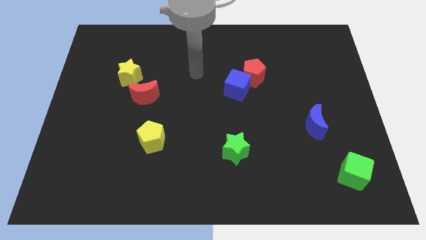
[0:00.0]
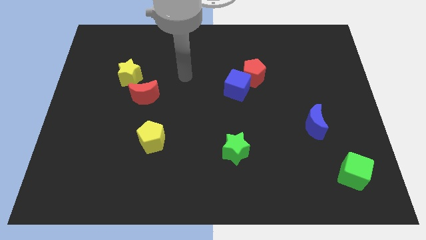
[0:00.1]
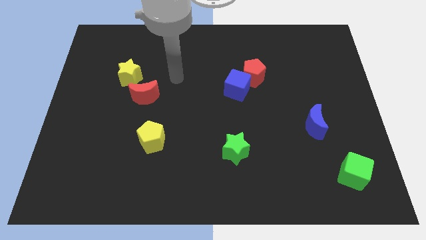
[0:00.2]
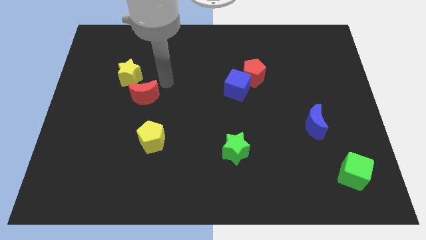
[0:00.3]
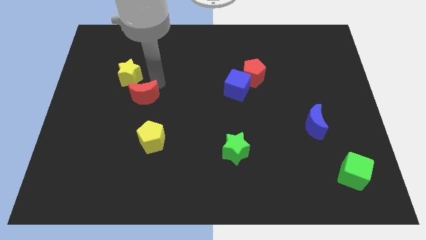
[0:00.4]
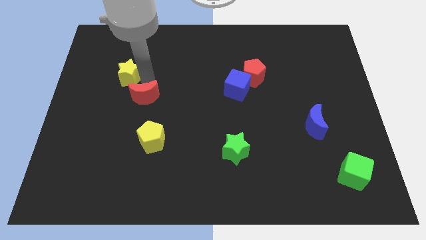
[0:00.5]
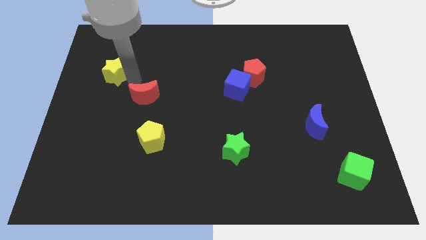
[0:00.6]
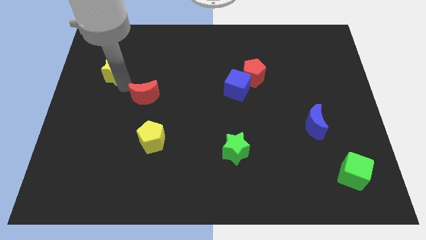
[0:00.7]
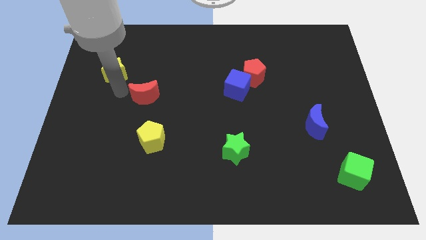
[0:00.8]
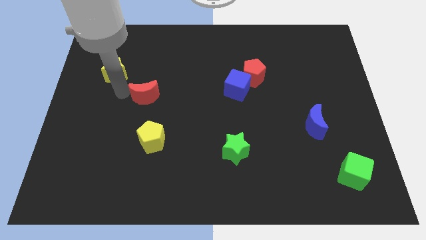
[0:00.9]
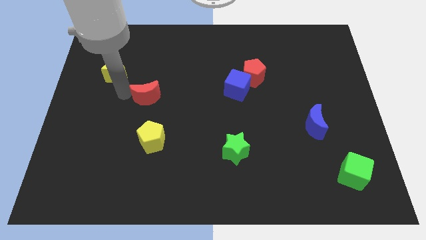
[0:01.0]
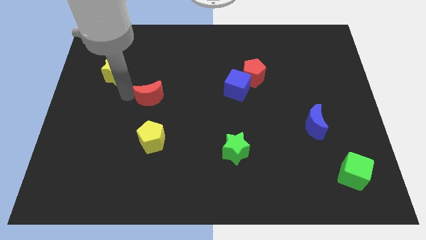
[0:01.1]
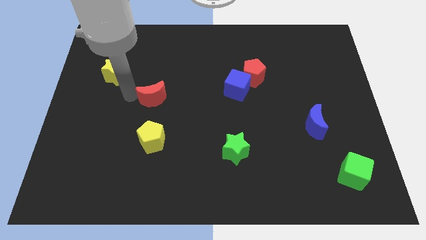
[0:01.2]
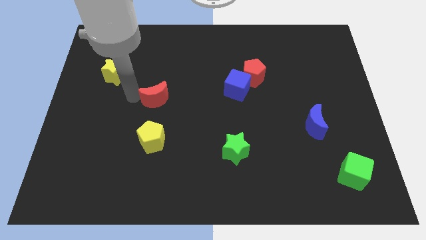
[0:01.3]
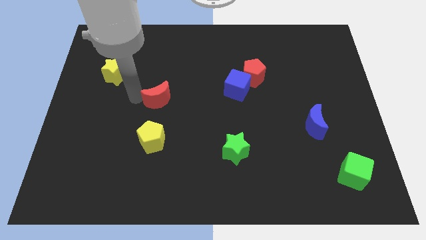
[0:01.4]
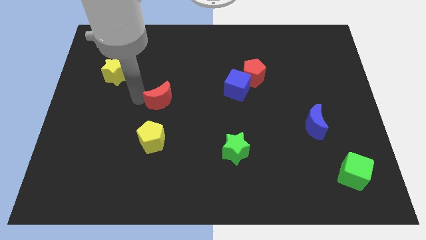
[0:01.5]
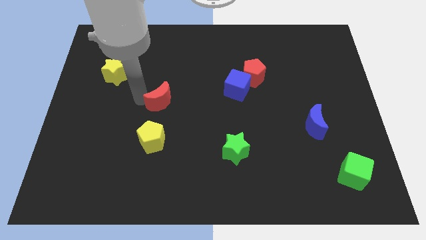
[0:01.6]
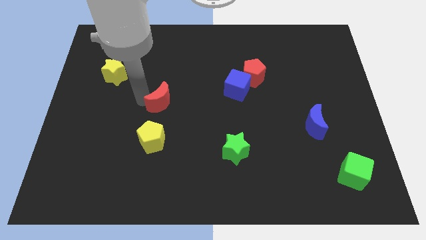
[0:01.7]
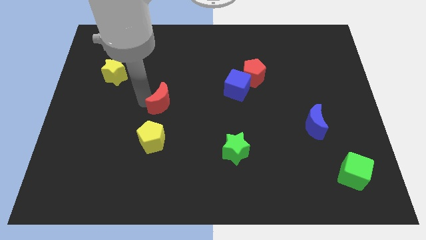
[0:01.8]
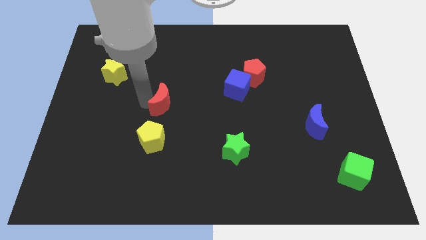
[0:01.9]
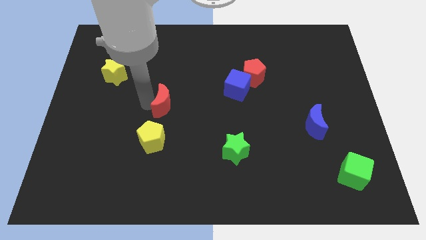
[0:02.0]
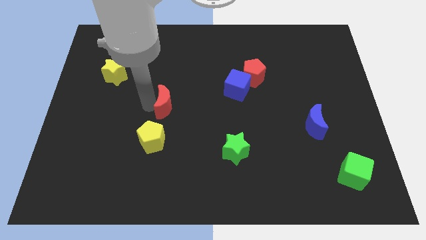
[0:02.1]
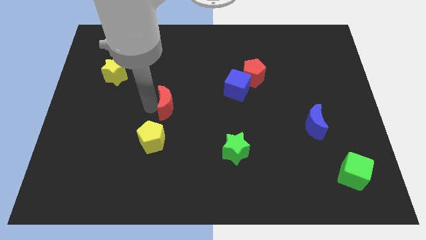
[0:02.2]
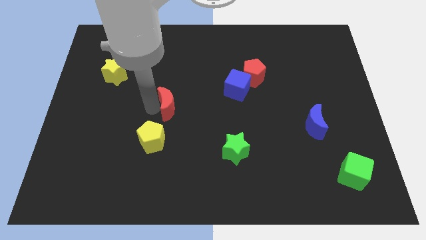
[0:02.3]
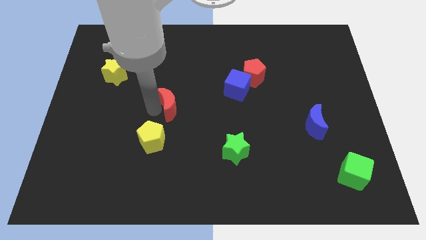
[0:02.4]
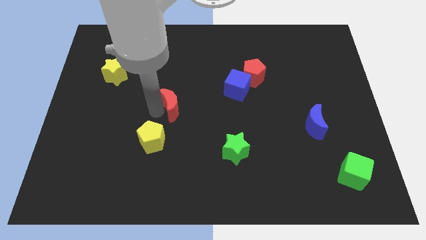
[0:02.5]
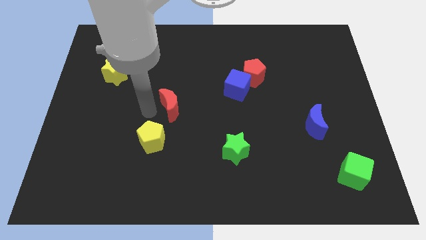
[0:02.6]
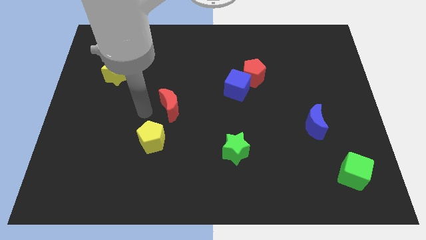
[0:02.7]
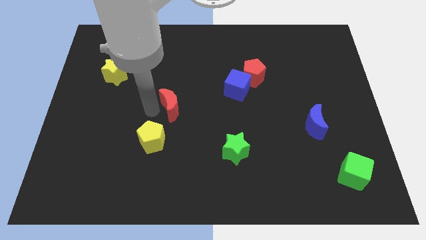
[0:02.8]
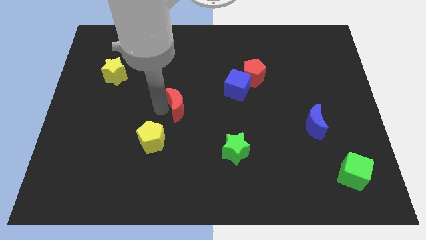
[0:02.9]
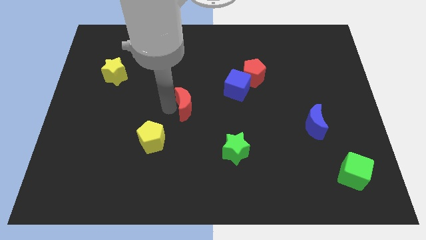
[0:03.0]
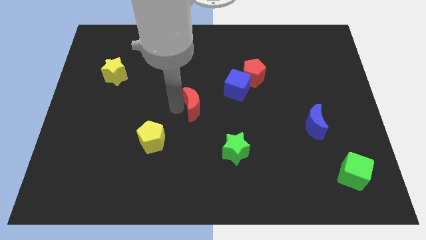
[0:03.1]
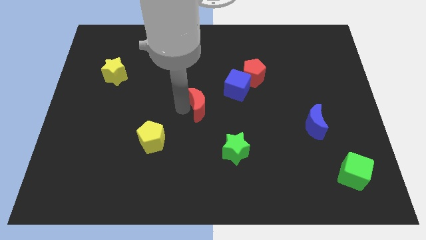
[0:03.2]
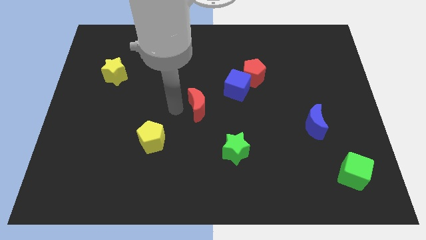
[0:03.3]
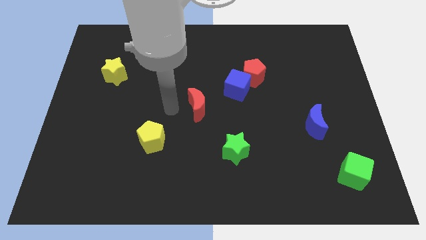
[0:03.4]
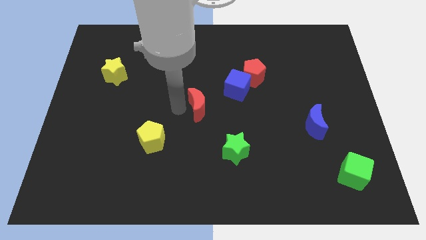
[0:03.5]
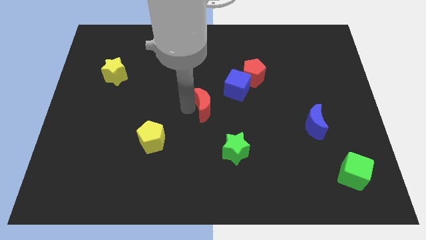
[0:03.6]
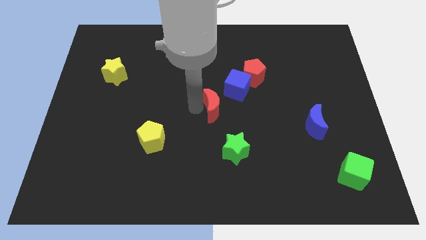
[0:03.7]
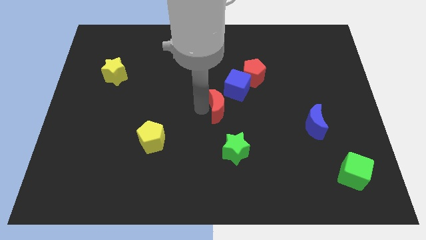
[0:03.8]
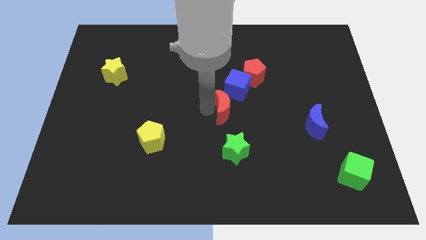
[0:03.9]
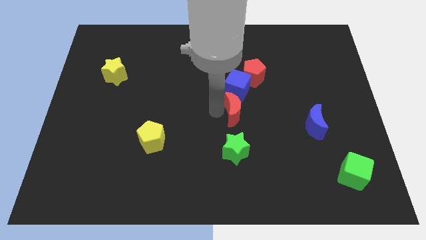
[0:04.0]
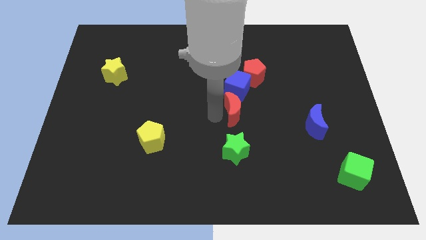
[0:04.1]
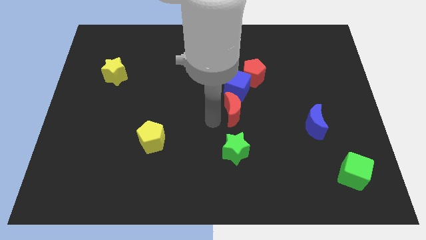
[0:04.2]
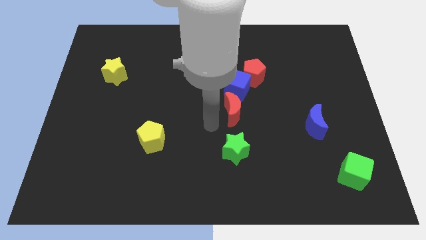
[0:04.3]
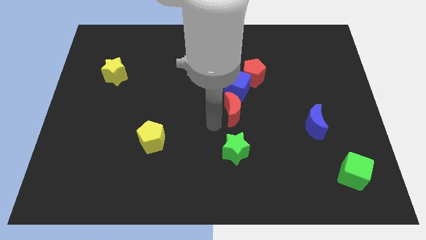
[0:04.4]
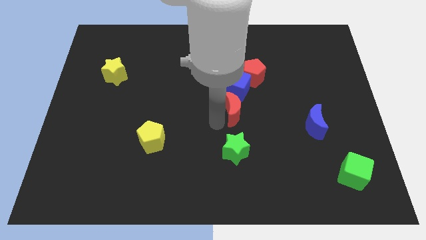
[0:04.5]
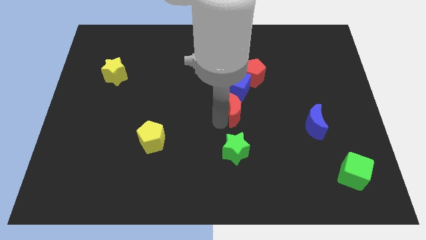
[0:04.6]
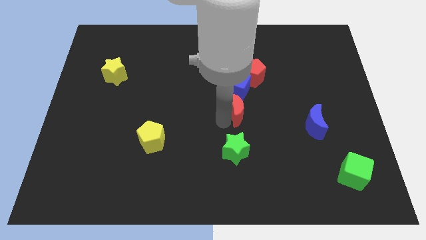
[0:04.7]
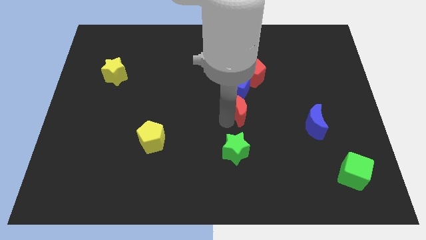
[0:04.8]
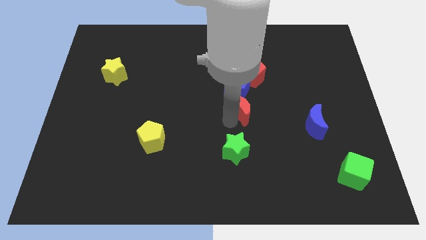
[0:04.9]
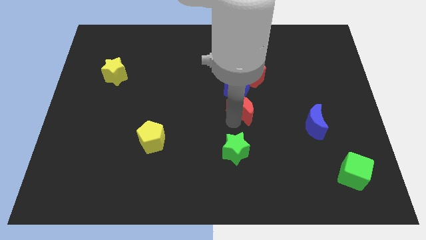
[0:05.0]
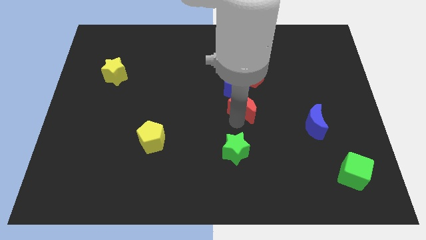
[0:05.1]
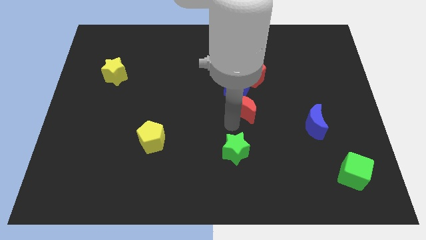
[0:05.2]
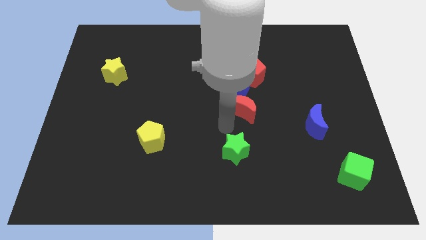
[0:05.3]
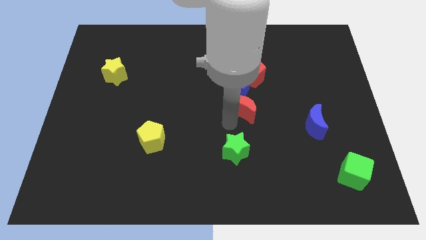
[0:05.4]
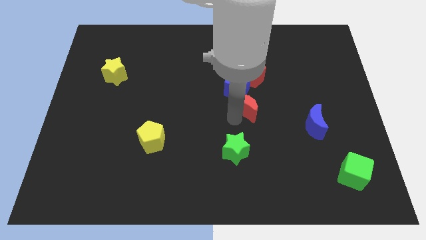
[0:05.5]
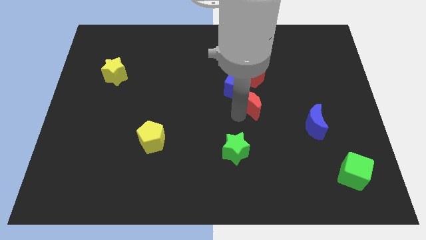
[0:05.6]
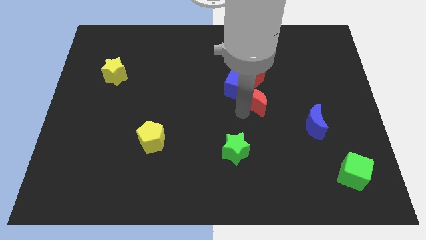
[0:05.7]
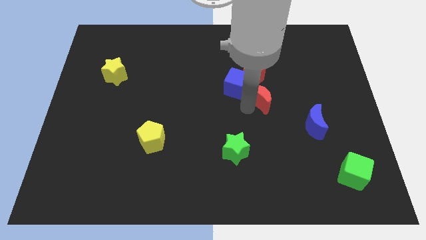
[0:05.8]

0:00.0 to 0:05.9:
put the red moon to the bottom right side of the red pentagon

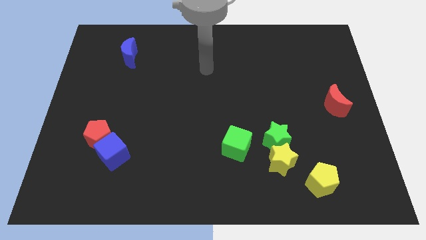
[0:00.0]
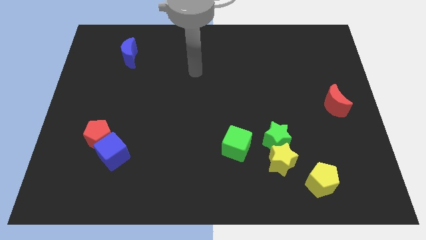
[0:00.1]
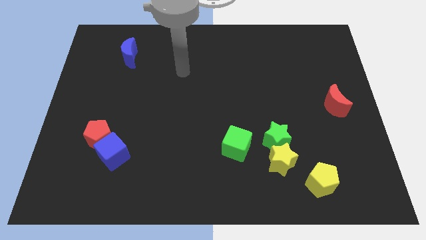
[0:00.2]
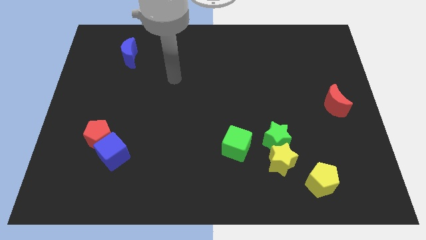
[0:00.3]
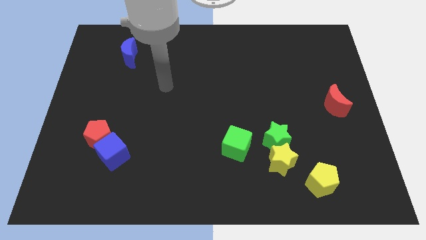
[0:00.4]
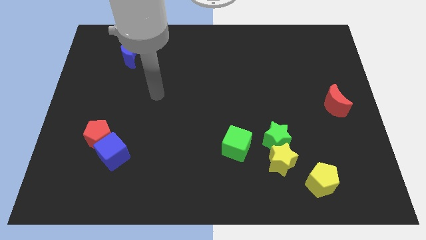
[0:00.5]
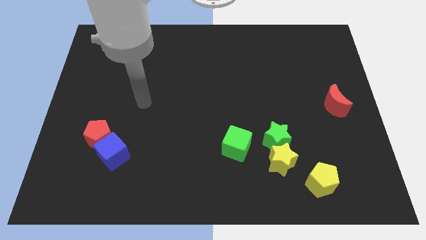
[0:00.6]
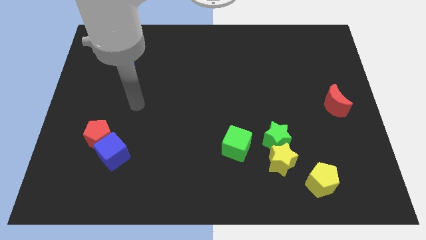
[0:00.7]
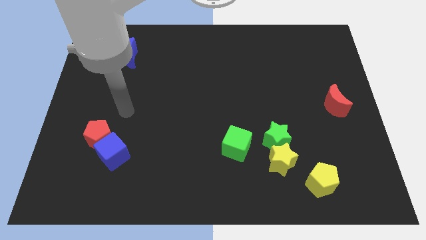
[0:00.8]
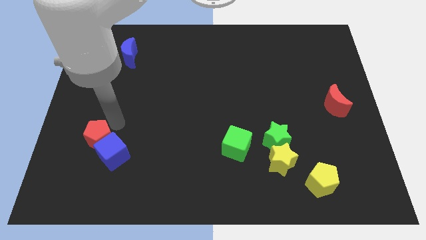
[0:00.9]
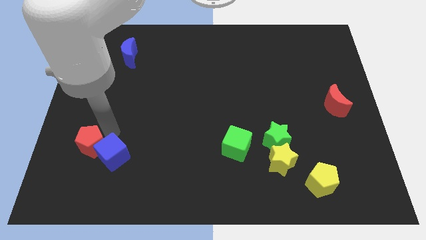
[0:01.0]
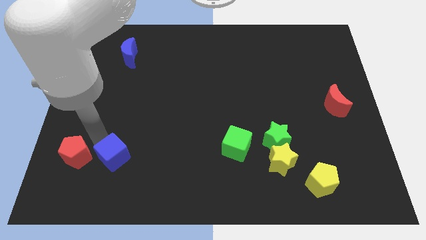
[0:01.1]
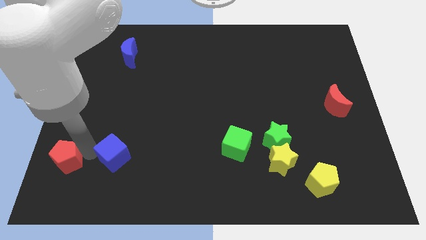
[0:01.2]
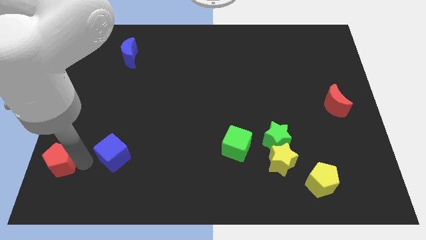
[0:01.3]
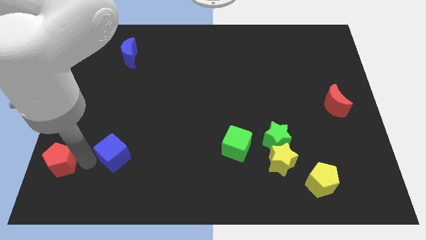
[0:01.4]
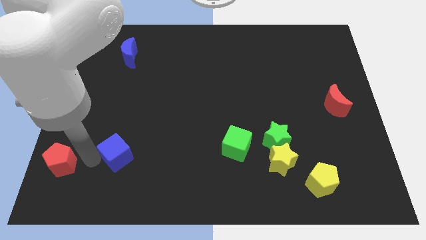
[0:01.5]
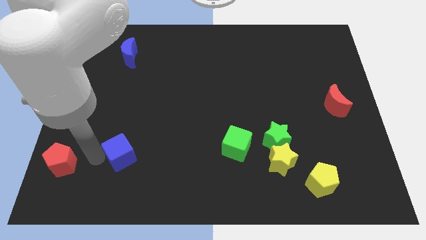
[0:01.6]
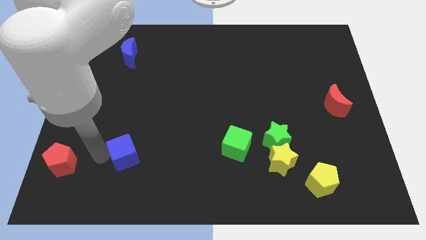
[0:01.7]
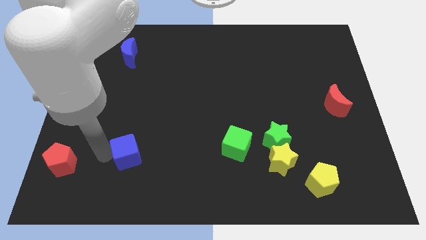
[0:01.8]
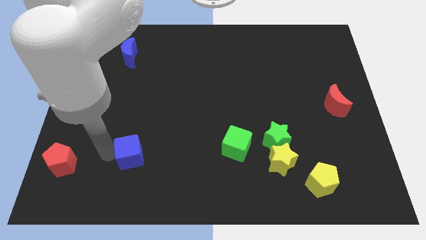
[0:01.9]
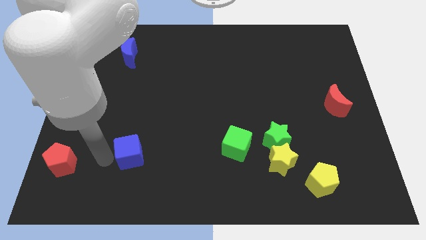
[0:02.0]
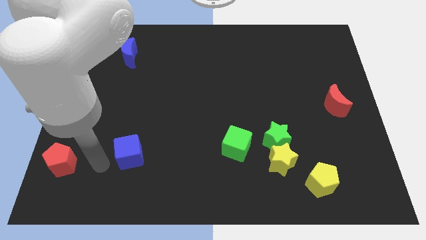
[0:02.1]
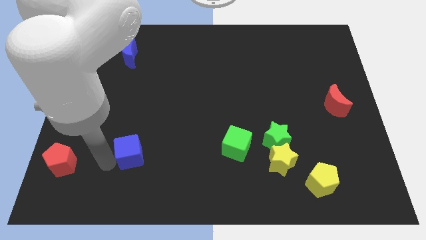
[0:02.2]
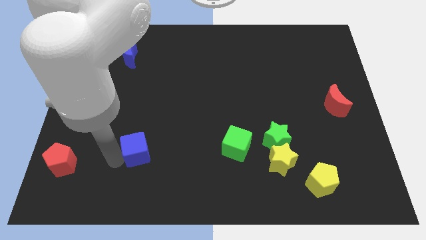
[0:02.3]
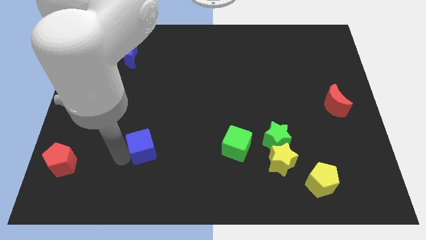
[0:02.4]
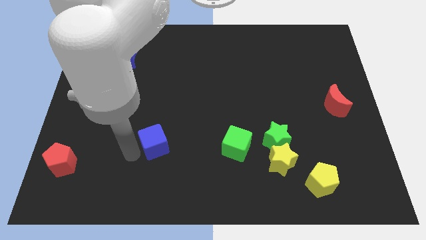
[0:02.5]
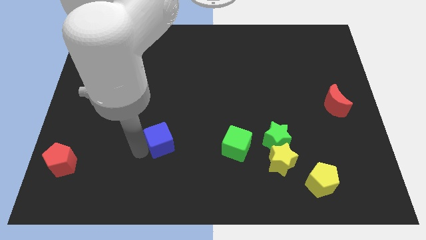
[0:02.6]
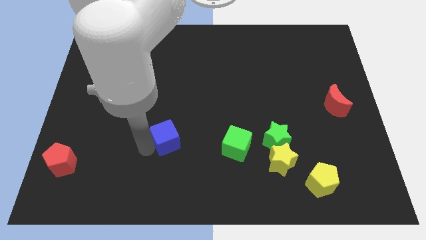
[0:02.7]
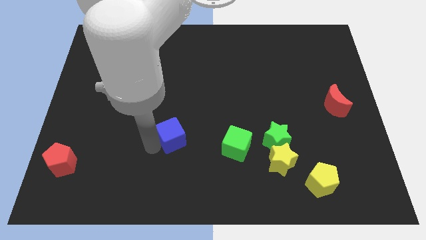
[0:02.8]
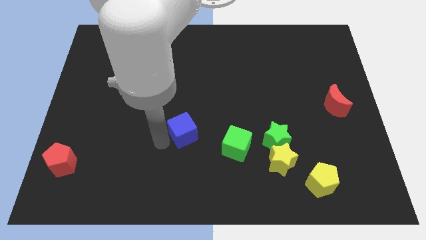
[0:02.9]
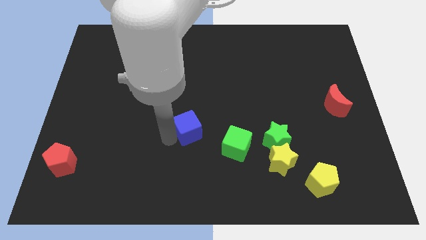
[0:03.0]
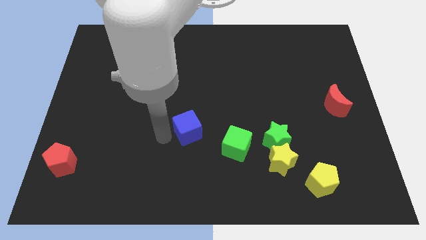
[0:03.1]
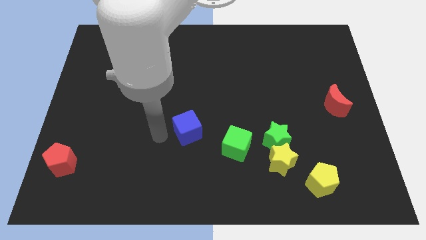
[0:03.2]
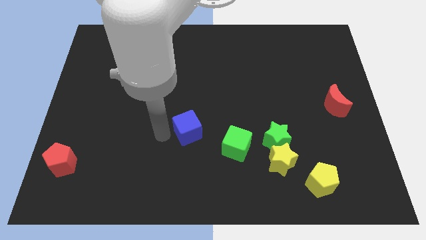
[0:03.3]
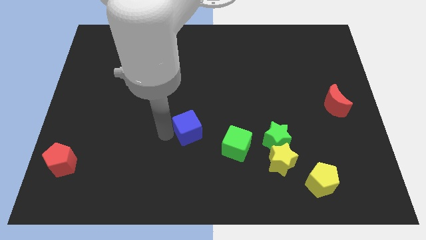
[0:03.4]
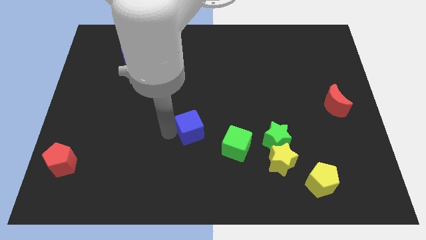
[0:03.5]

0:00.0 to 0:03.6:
move the blue cube diagonally up and to the left of the green cube
